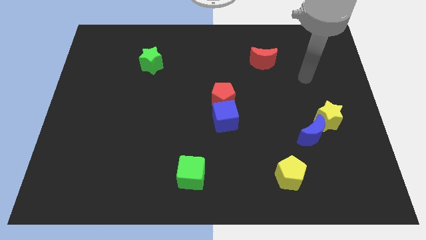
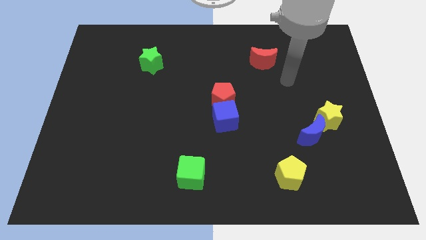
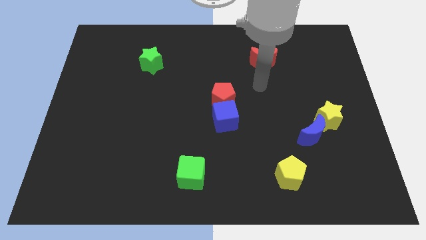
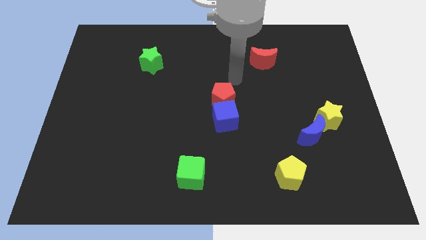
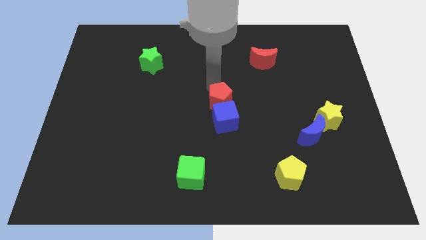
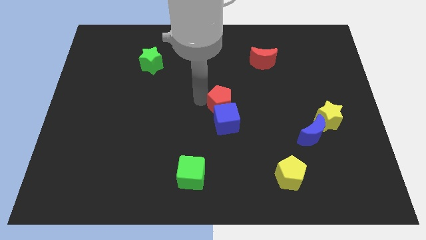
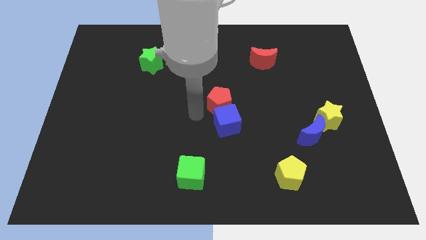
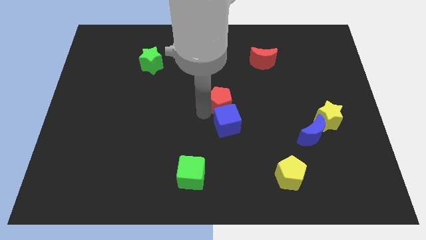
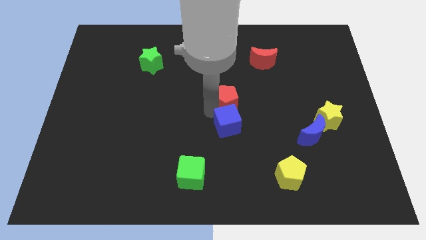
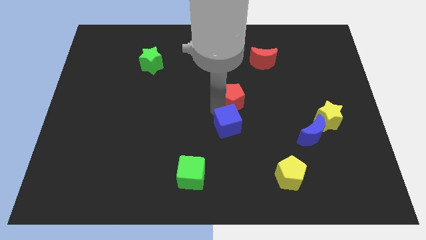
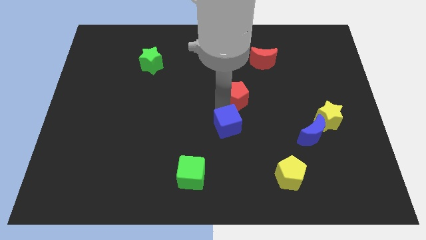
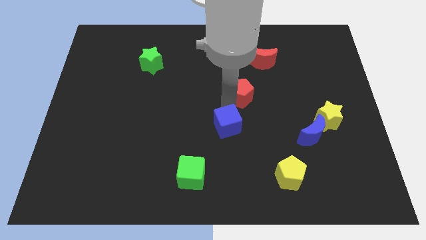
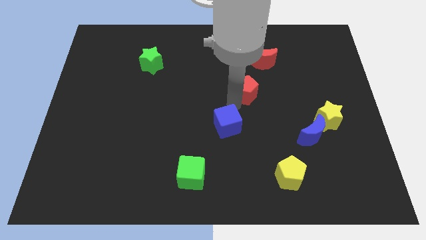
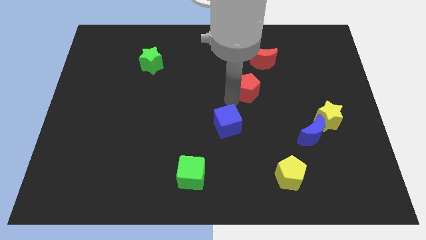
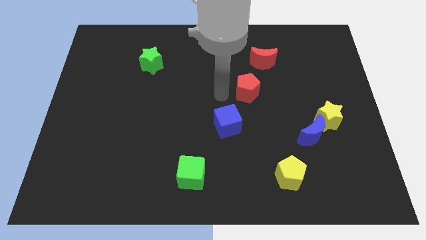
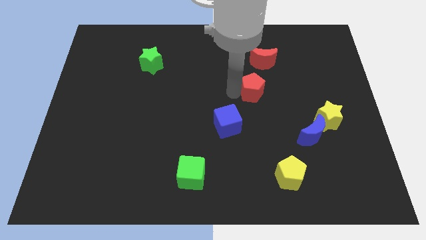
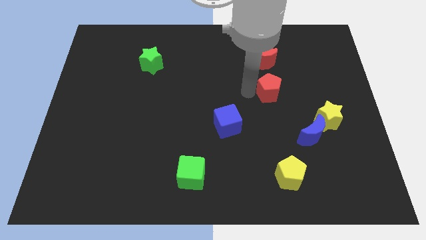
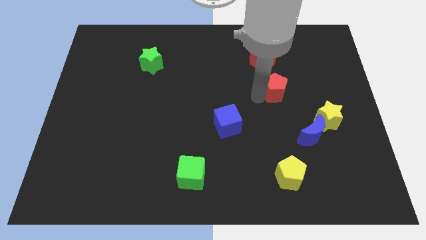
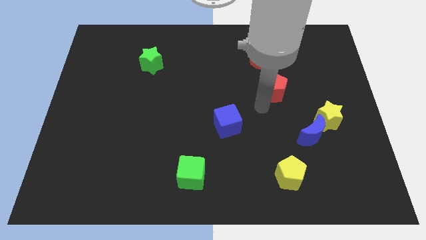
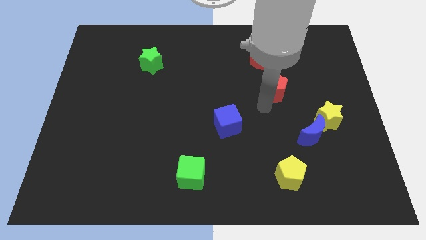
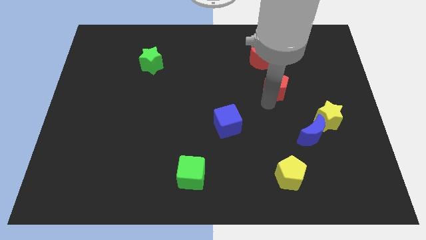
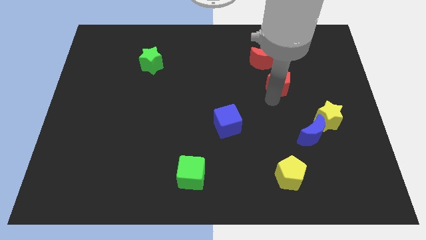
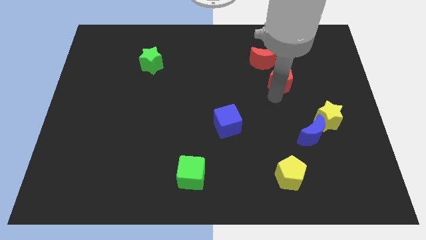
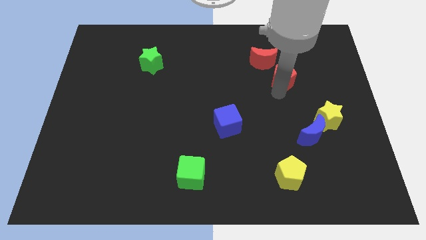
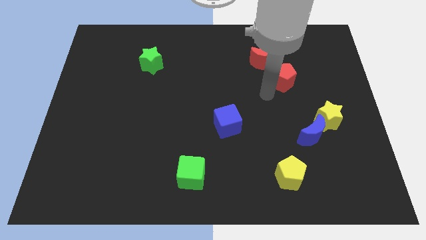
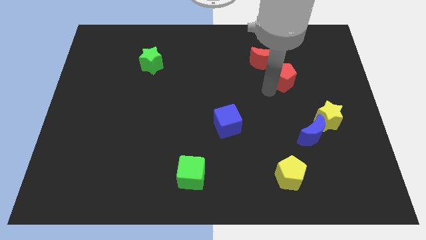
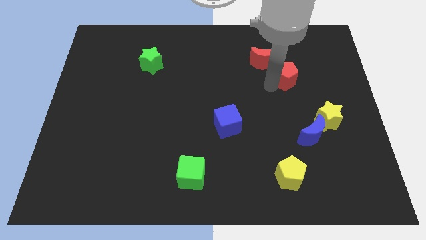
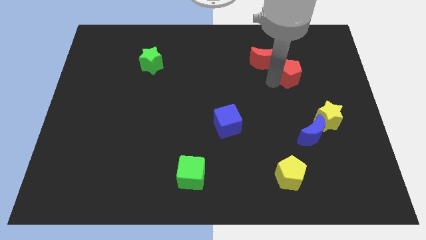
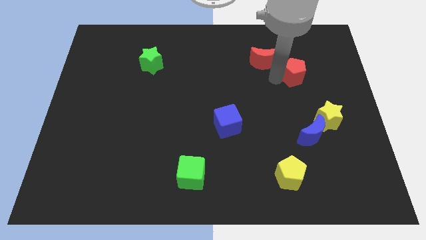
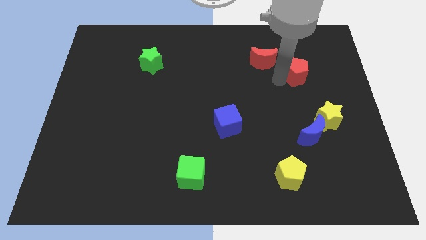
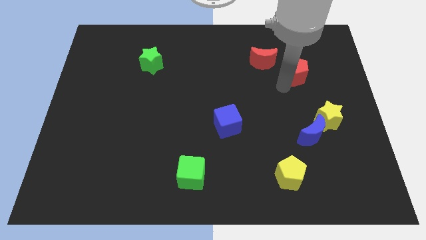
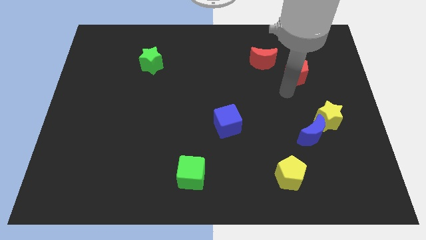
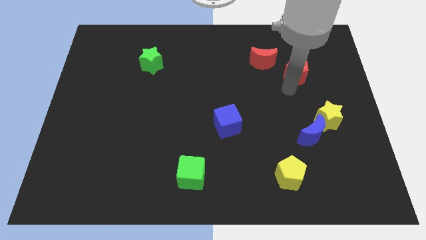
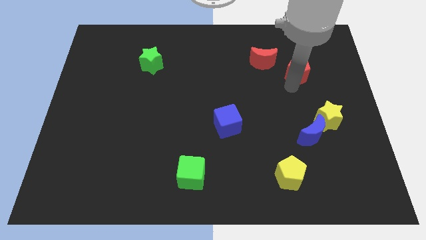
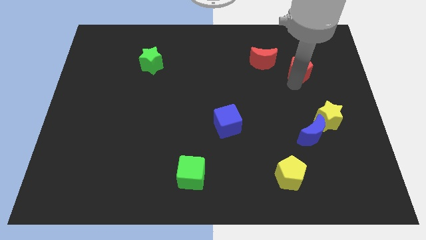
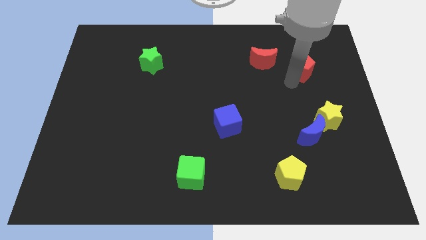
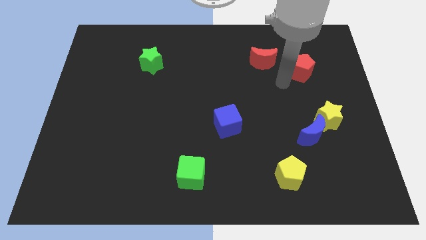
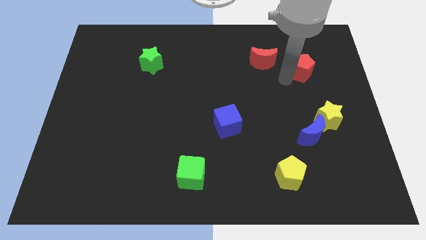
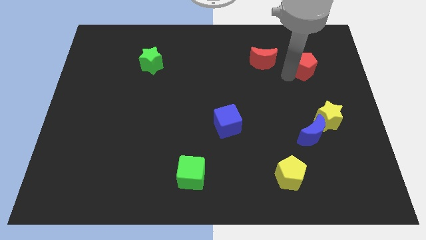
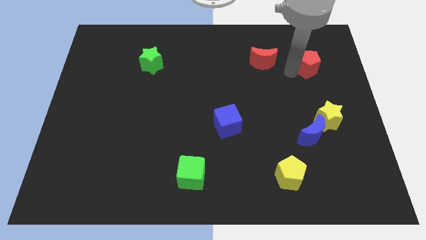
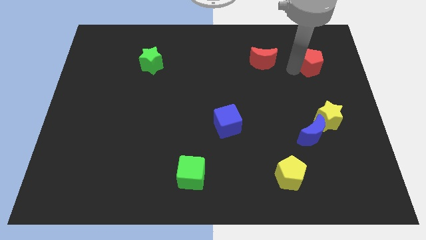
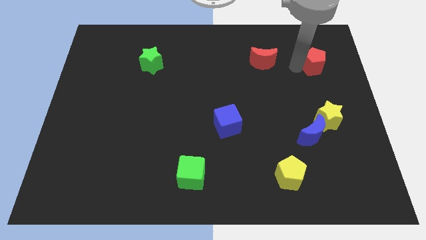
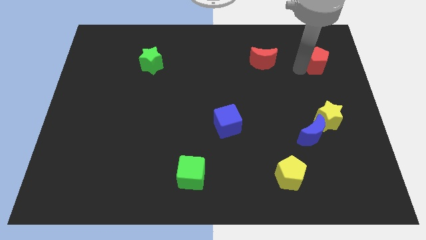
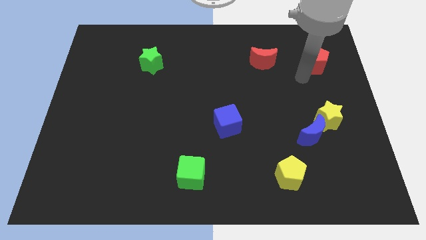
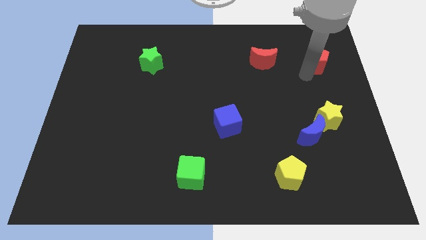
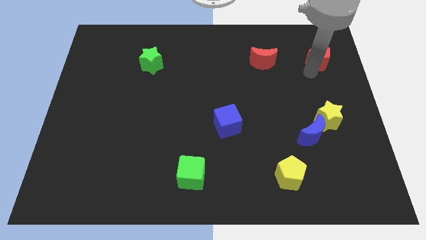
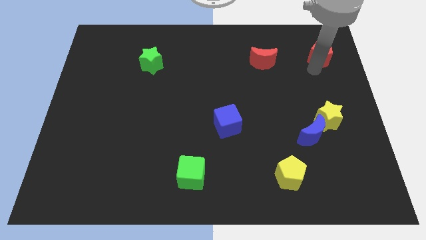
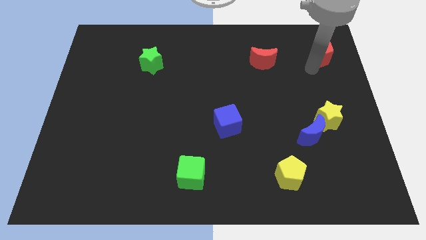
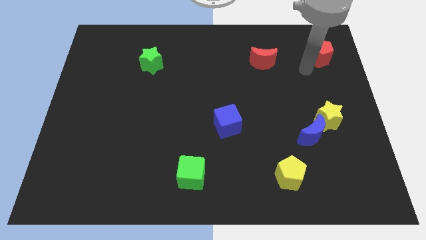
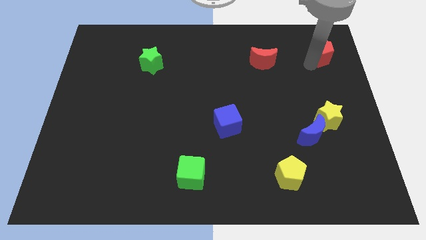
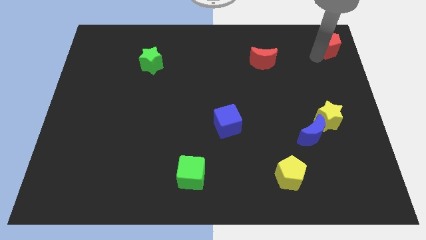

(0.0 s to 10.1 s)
push the red pentagon to the upper right corner

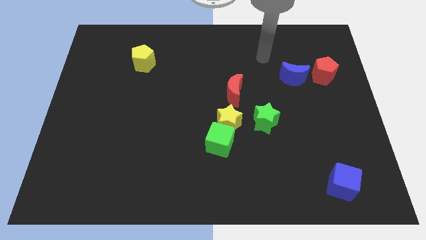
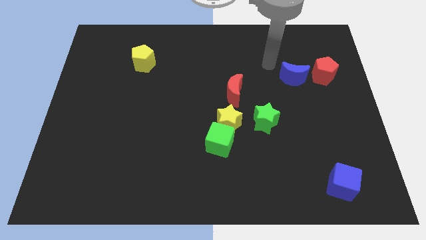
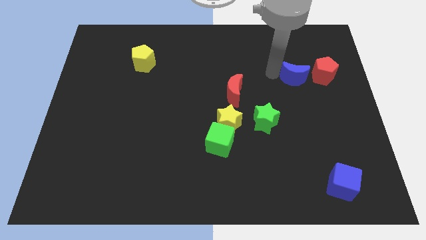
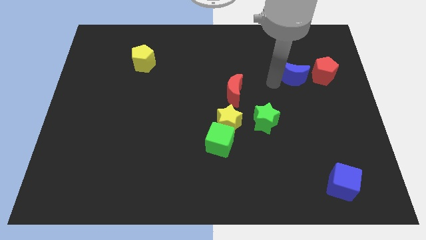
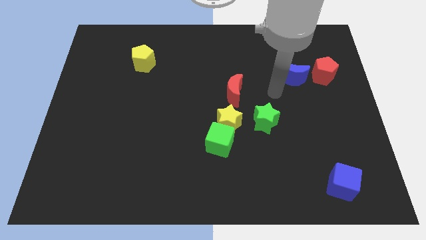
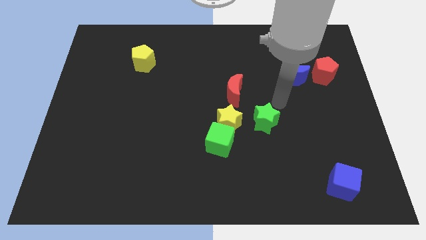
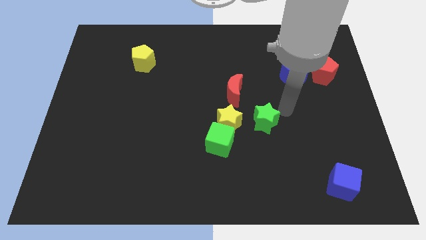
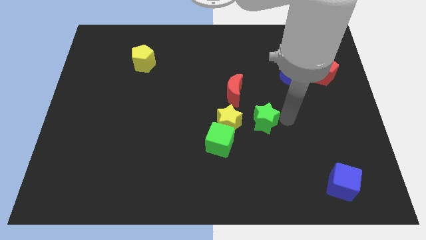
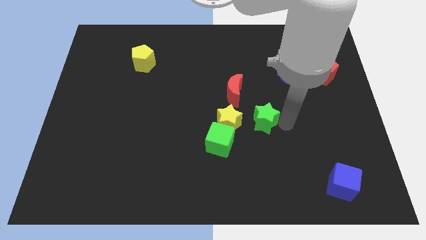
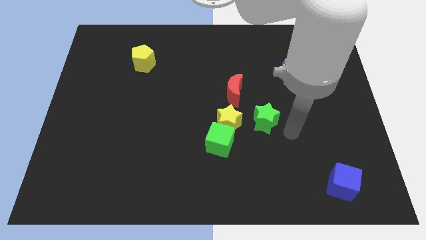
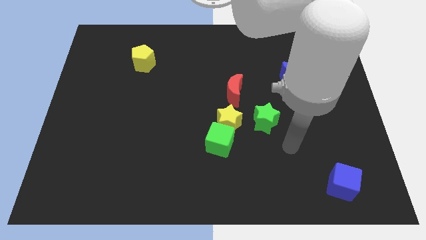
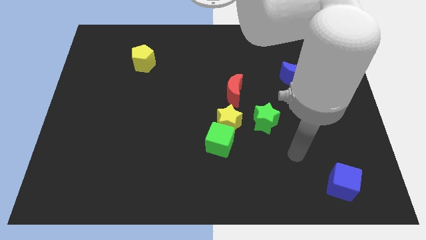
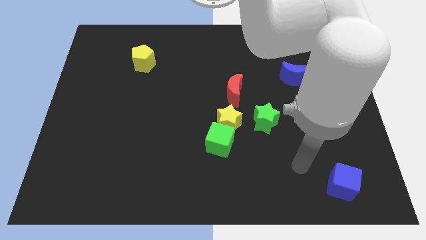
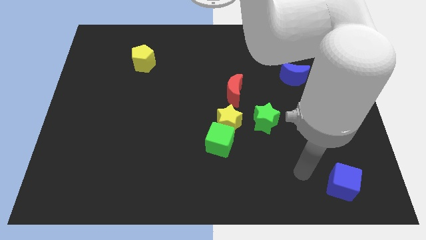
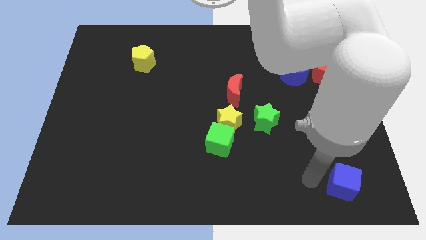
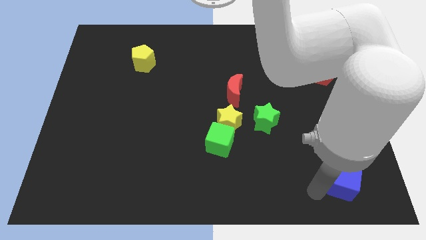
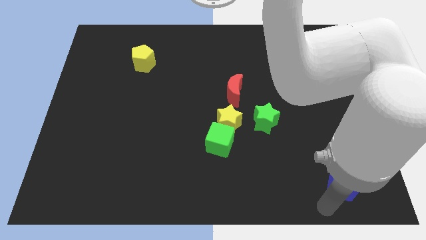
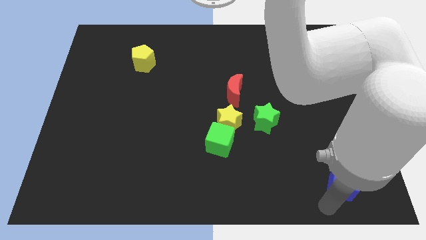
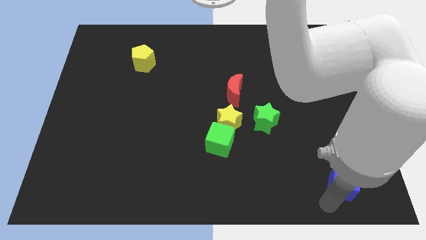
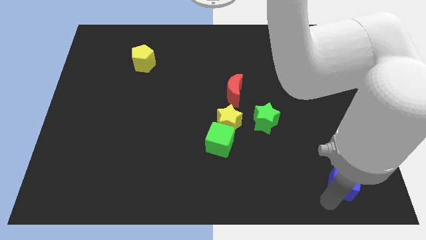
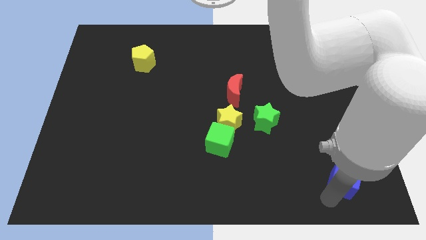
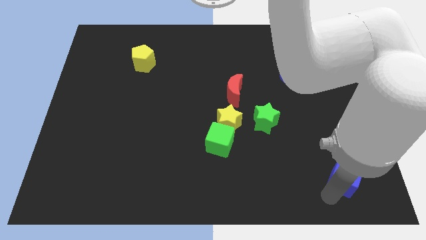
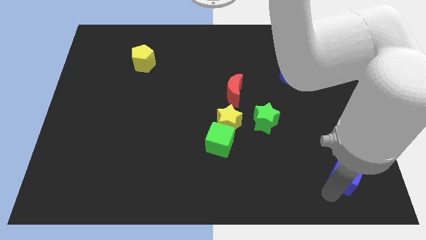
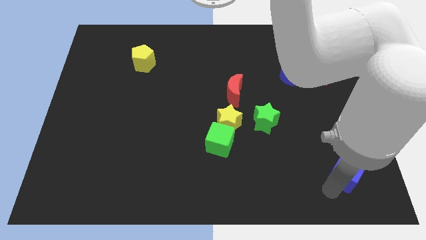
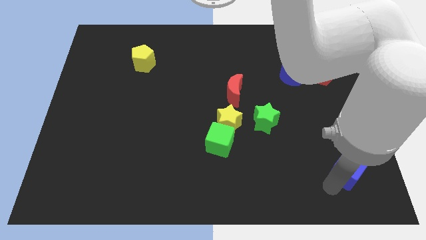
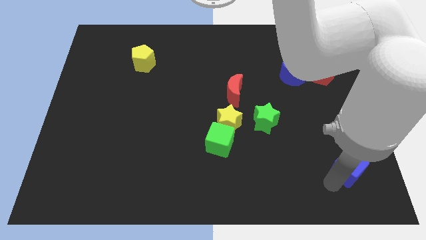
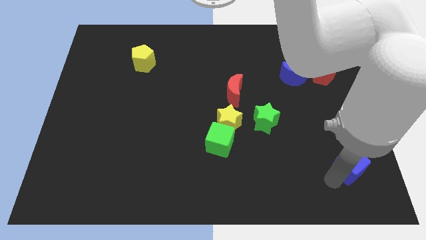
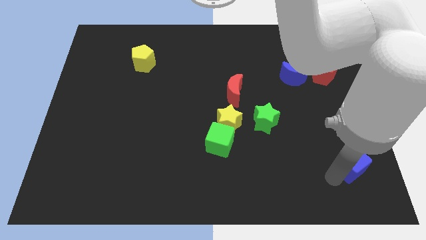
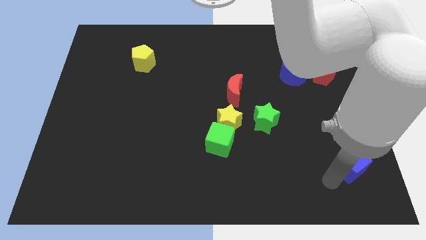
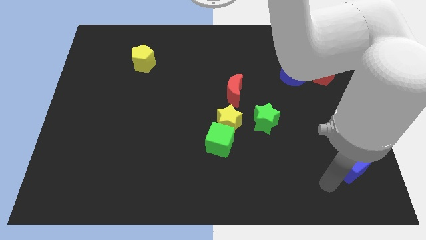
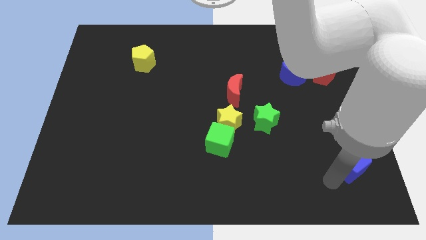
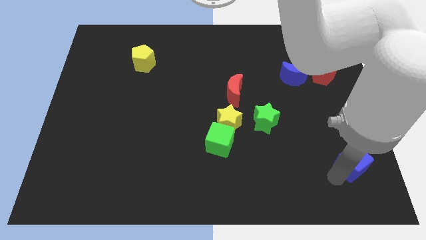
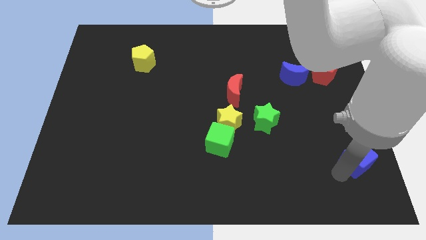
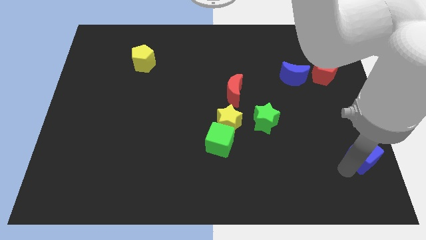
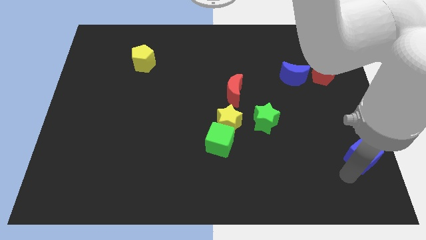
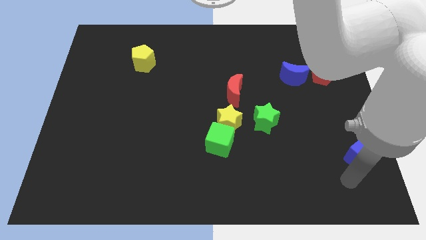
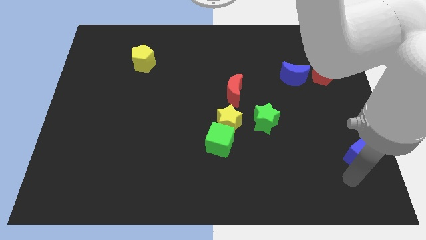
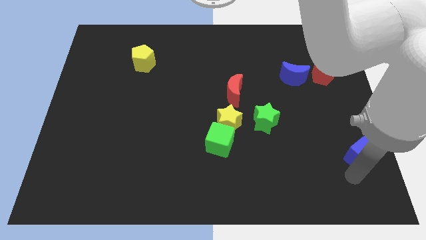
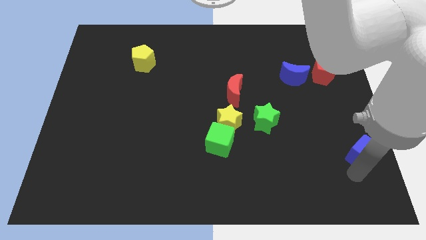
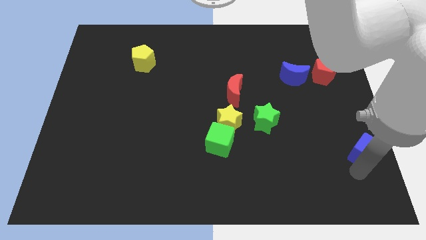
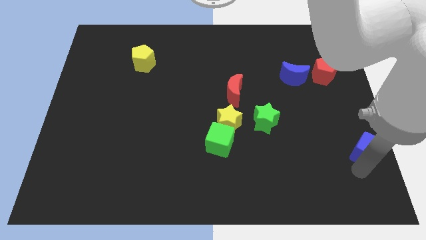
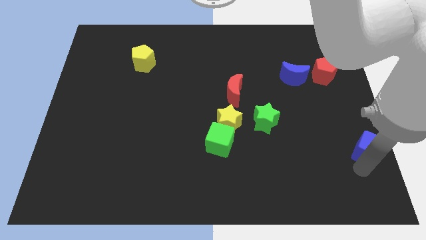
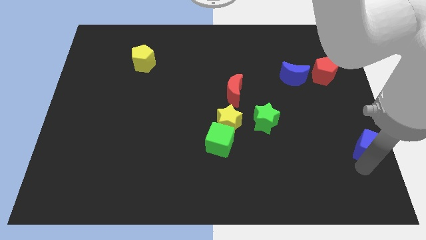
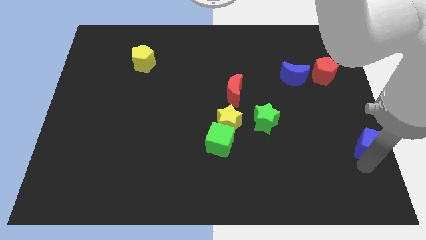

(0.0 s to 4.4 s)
put the blue cube to the right side of the board
